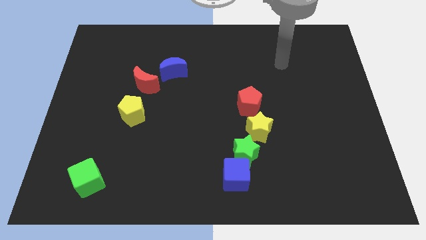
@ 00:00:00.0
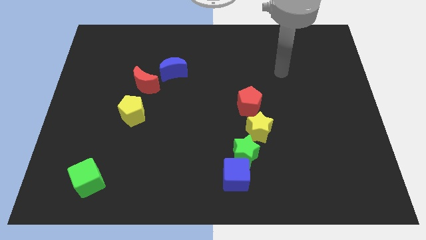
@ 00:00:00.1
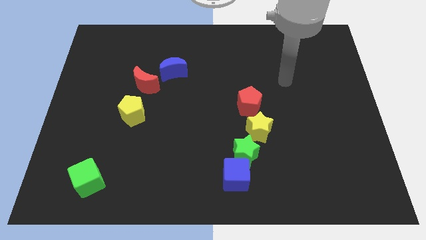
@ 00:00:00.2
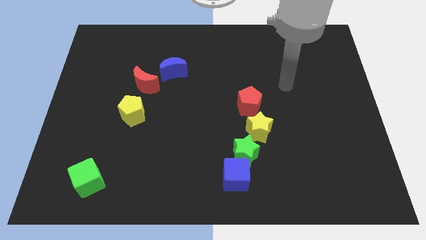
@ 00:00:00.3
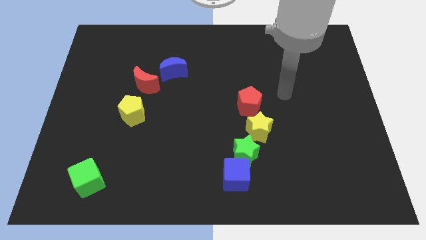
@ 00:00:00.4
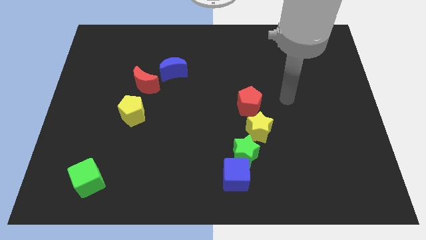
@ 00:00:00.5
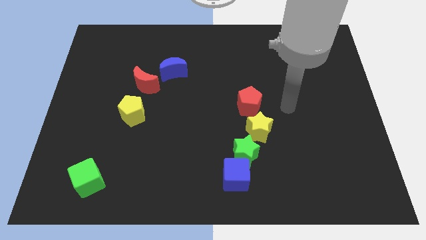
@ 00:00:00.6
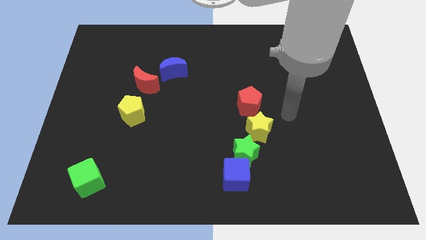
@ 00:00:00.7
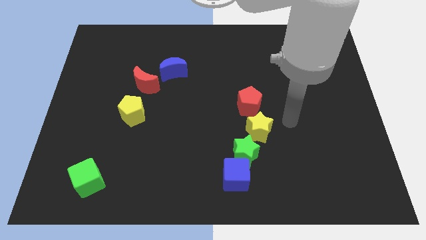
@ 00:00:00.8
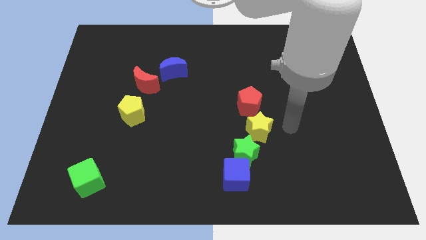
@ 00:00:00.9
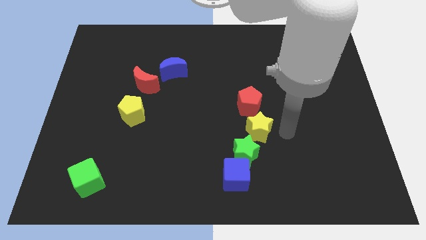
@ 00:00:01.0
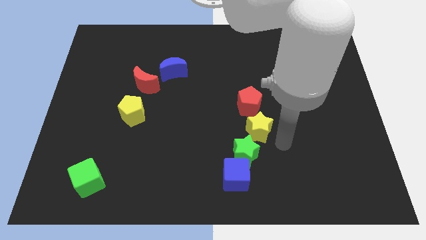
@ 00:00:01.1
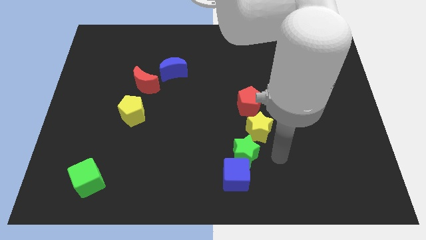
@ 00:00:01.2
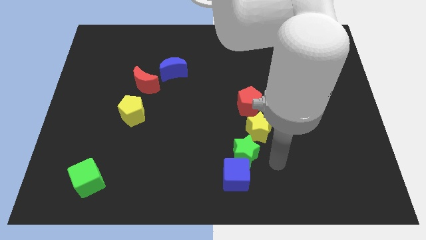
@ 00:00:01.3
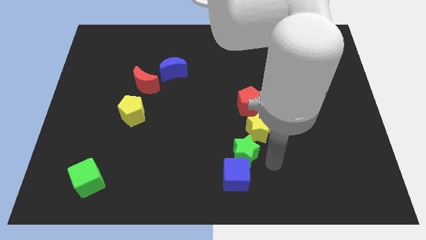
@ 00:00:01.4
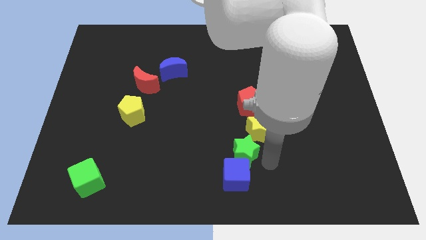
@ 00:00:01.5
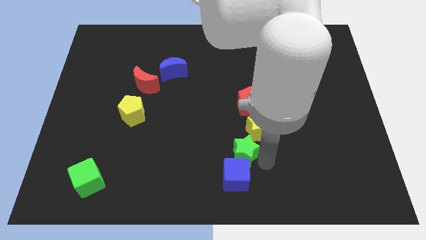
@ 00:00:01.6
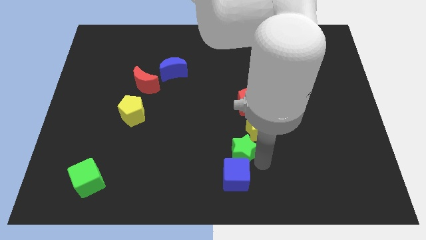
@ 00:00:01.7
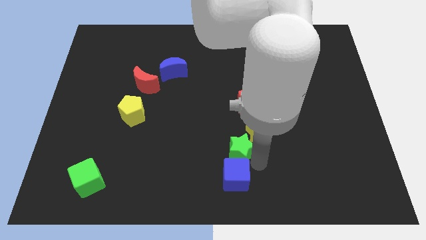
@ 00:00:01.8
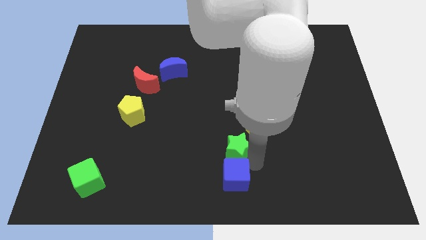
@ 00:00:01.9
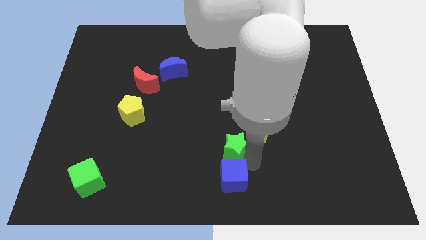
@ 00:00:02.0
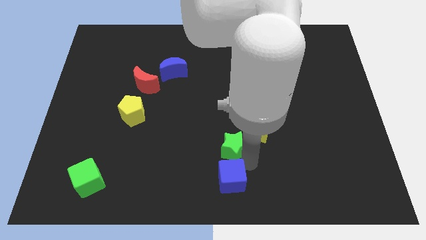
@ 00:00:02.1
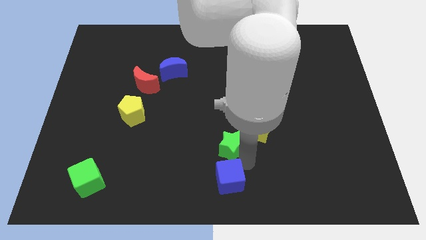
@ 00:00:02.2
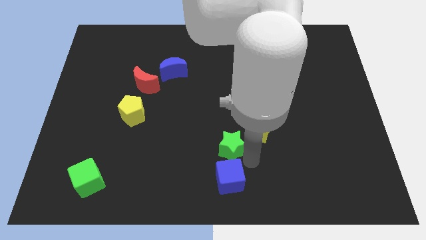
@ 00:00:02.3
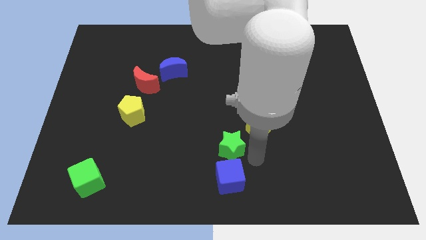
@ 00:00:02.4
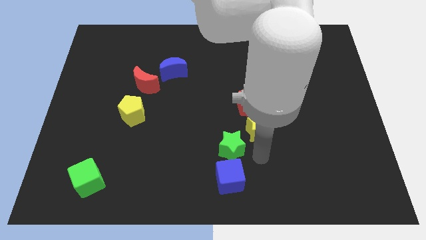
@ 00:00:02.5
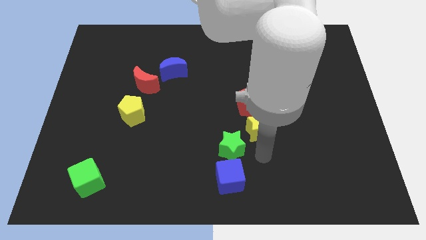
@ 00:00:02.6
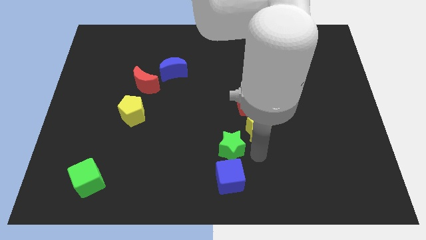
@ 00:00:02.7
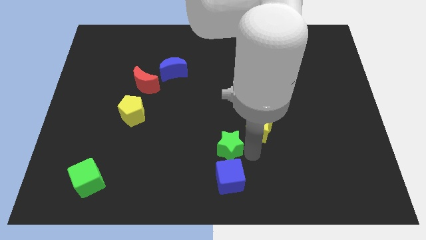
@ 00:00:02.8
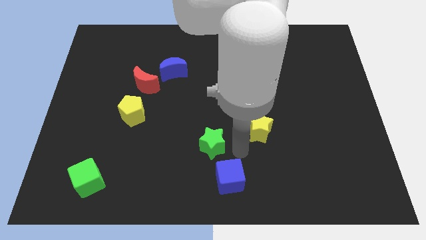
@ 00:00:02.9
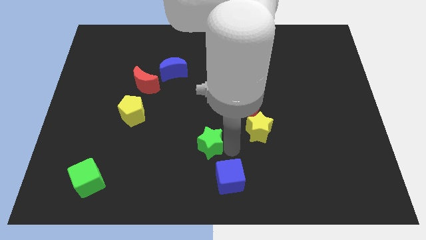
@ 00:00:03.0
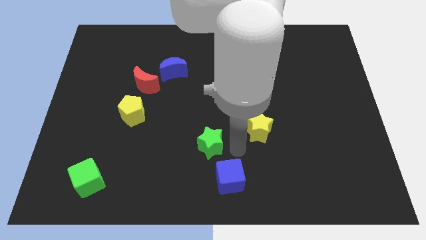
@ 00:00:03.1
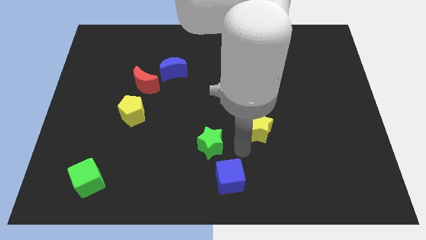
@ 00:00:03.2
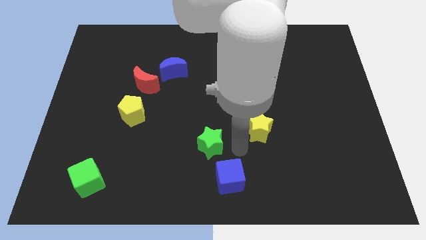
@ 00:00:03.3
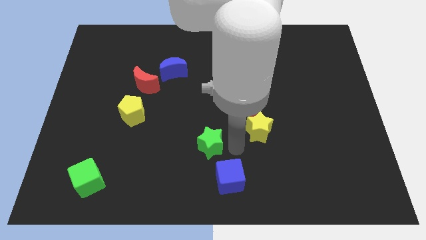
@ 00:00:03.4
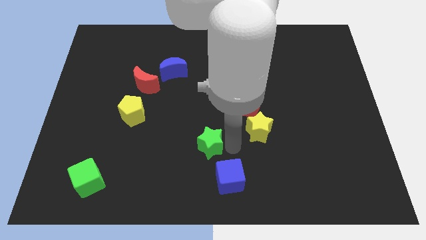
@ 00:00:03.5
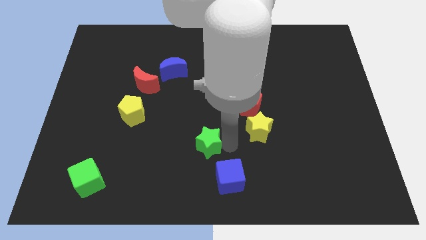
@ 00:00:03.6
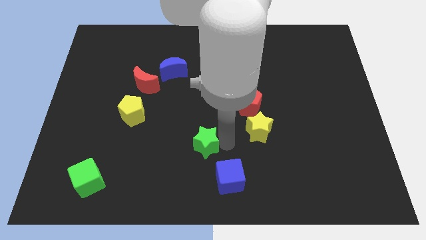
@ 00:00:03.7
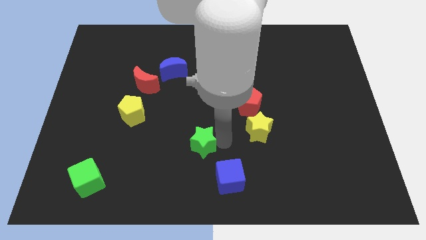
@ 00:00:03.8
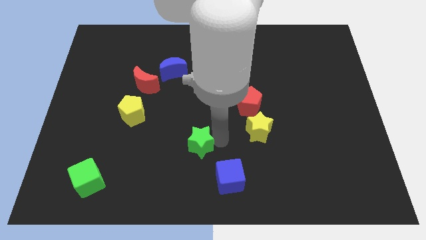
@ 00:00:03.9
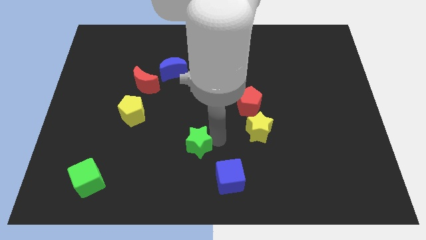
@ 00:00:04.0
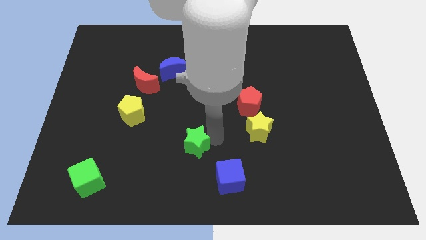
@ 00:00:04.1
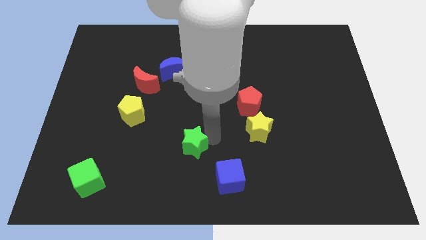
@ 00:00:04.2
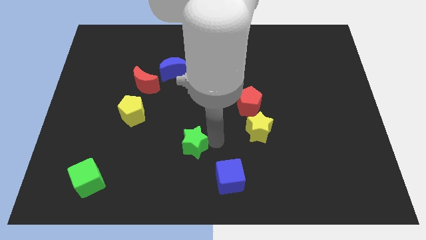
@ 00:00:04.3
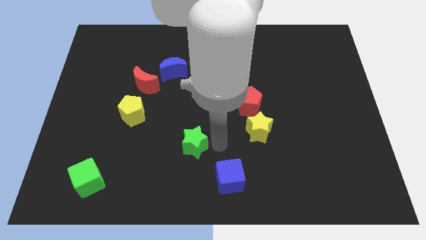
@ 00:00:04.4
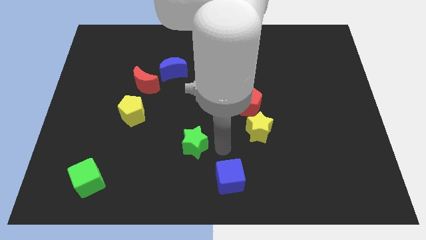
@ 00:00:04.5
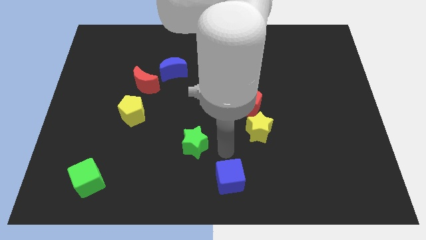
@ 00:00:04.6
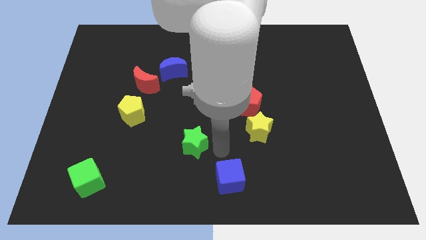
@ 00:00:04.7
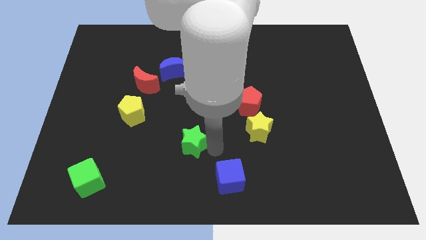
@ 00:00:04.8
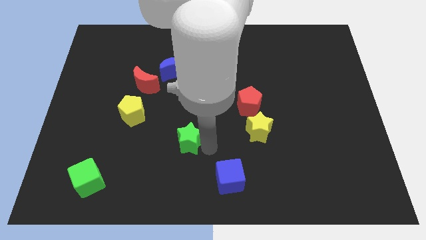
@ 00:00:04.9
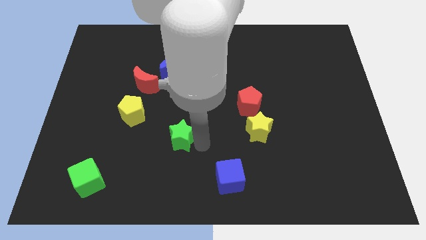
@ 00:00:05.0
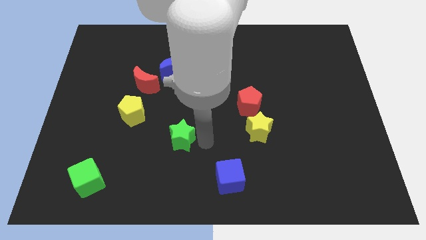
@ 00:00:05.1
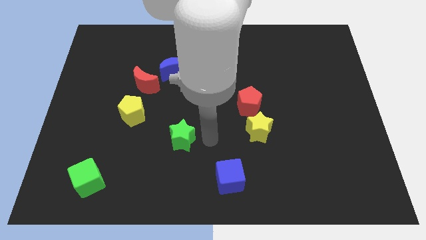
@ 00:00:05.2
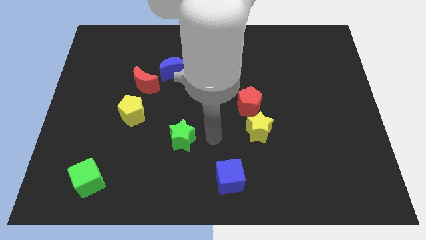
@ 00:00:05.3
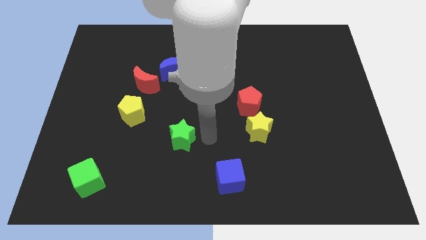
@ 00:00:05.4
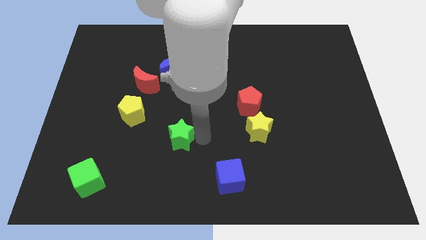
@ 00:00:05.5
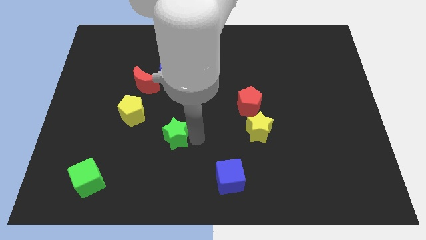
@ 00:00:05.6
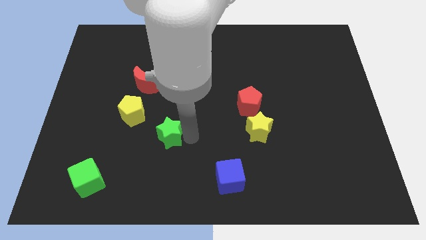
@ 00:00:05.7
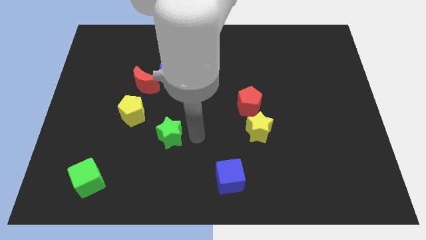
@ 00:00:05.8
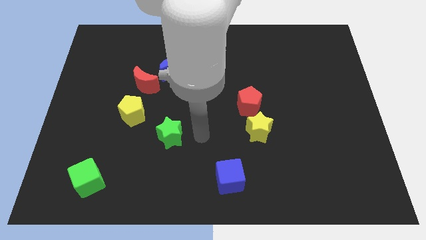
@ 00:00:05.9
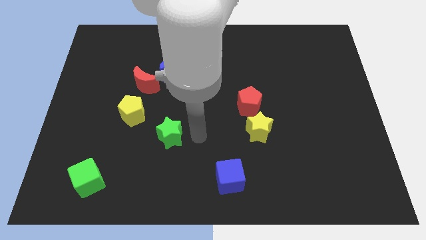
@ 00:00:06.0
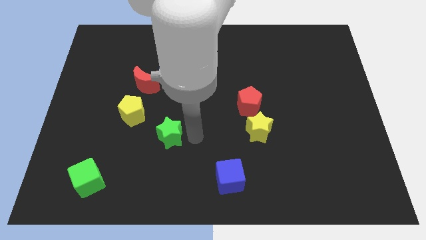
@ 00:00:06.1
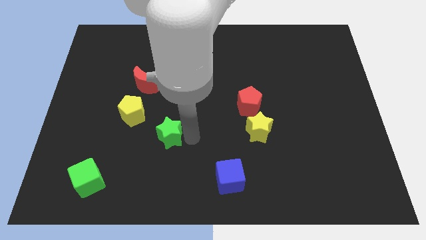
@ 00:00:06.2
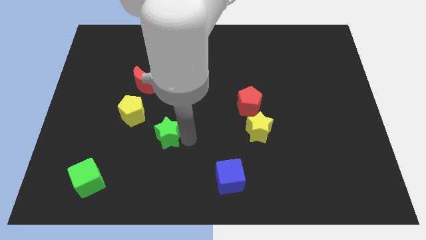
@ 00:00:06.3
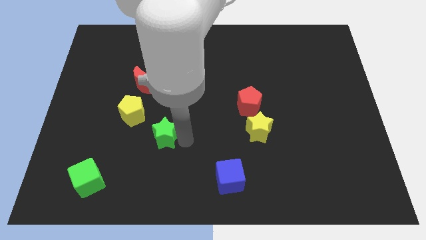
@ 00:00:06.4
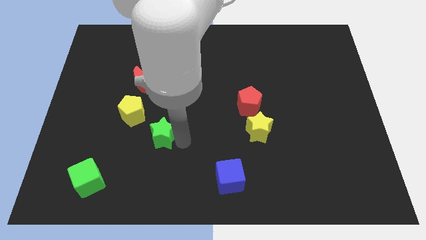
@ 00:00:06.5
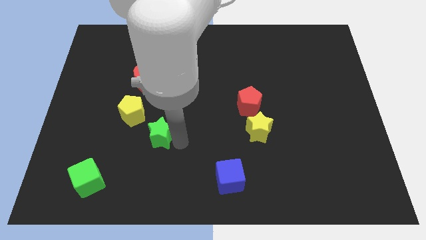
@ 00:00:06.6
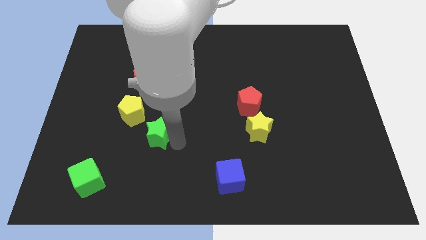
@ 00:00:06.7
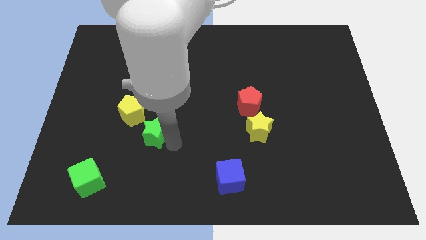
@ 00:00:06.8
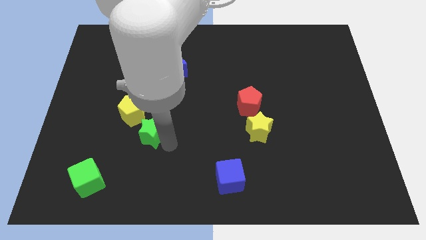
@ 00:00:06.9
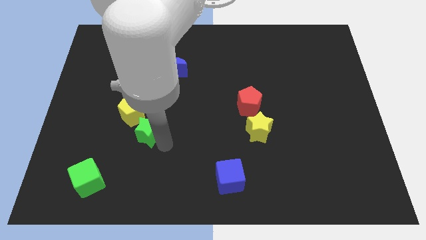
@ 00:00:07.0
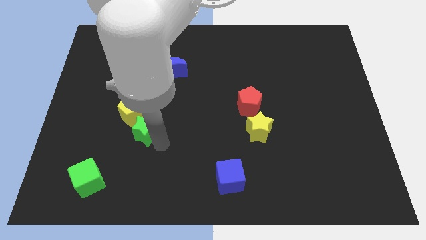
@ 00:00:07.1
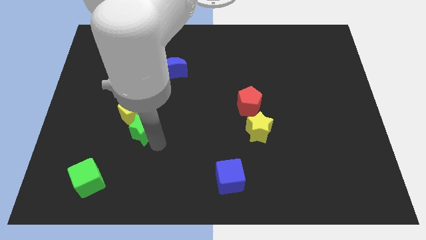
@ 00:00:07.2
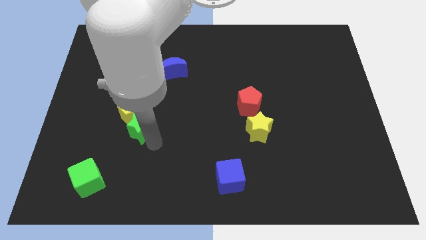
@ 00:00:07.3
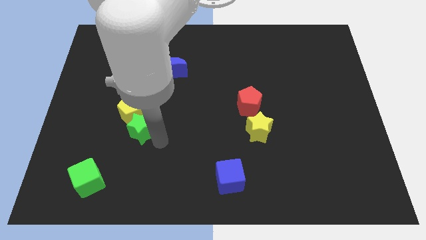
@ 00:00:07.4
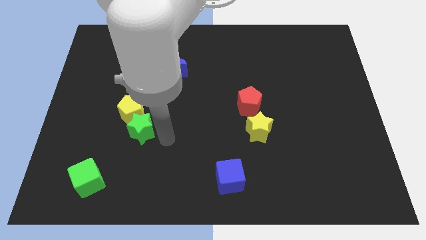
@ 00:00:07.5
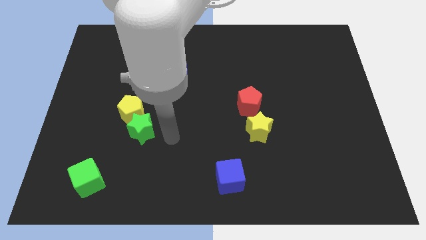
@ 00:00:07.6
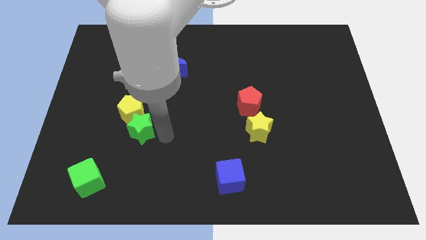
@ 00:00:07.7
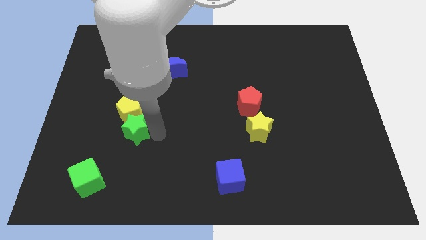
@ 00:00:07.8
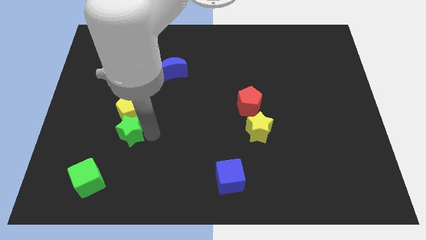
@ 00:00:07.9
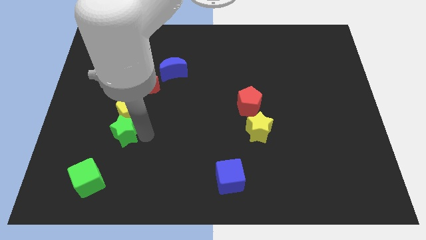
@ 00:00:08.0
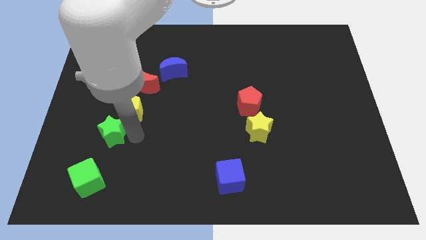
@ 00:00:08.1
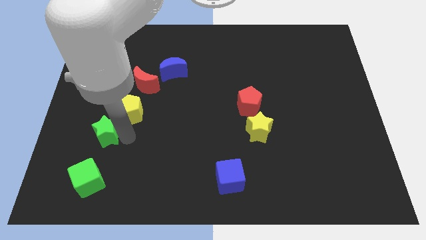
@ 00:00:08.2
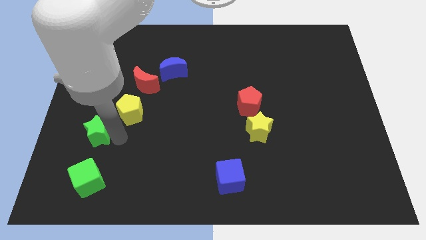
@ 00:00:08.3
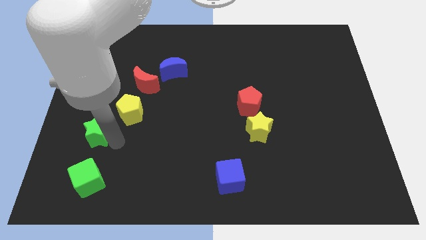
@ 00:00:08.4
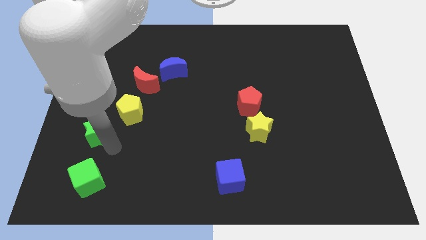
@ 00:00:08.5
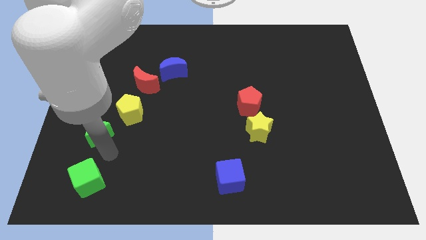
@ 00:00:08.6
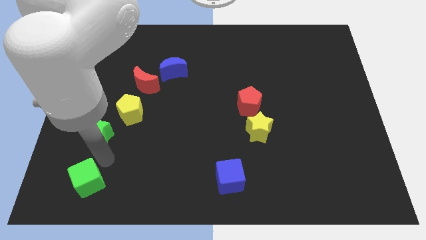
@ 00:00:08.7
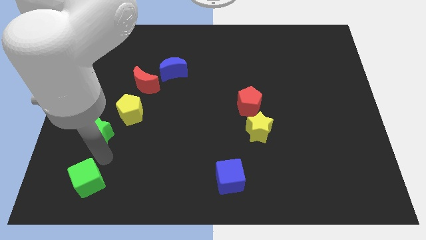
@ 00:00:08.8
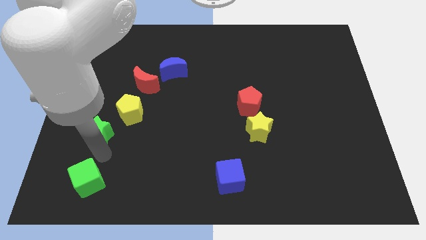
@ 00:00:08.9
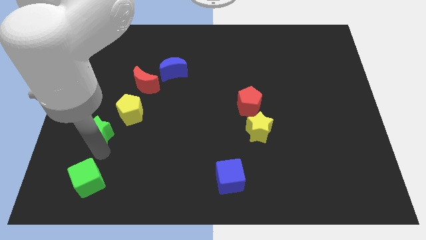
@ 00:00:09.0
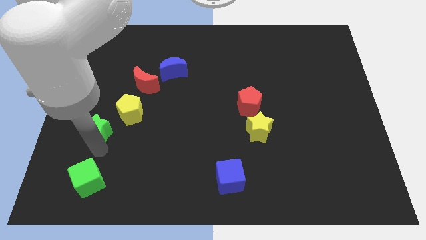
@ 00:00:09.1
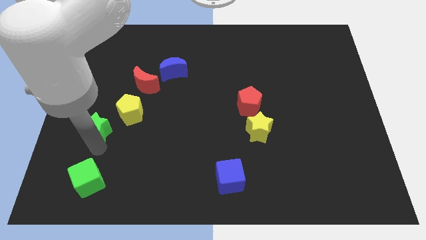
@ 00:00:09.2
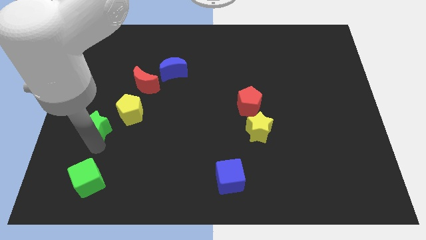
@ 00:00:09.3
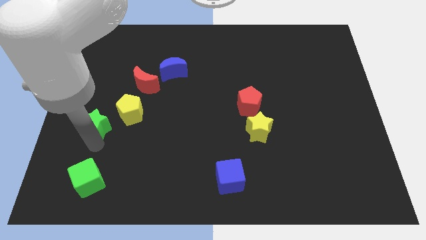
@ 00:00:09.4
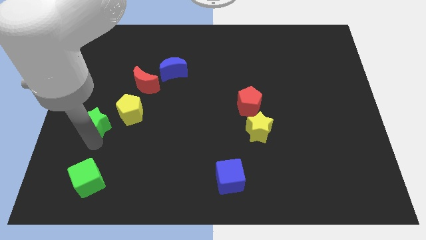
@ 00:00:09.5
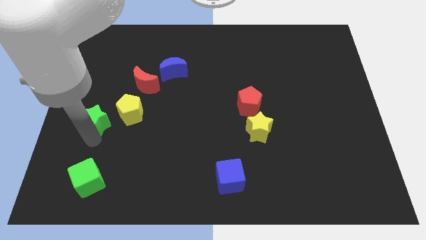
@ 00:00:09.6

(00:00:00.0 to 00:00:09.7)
push the green star to the left side
